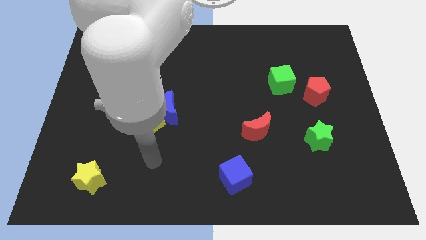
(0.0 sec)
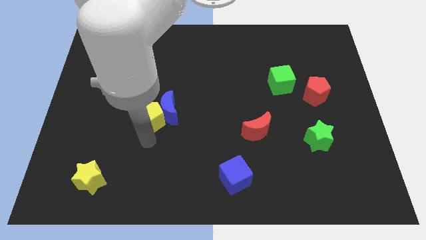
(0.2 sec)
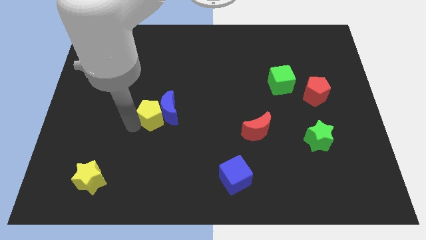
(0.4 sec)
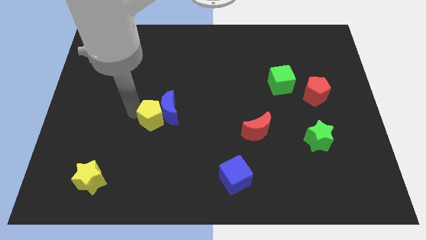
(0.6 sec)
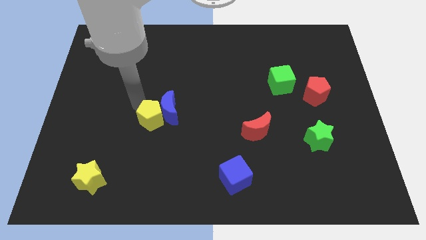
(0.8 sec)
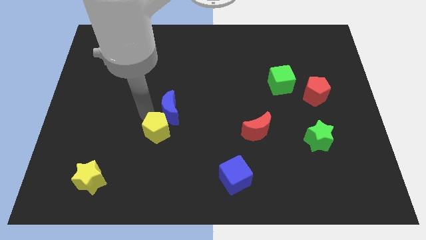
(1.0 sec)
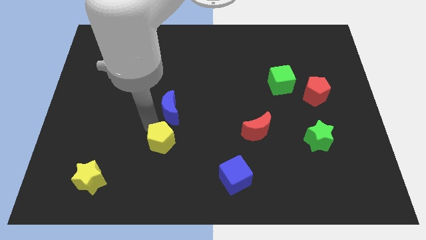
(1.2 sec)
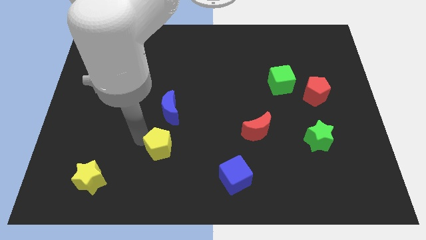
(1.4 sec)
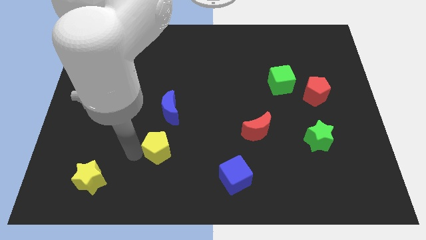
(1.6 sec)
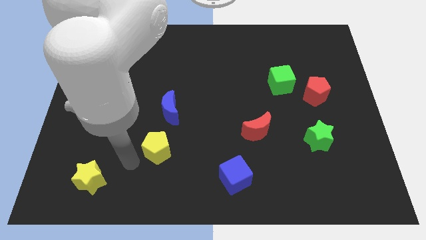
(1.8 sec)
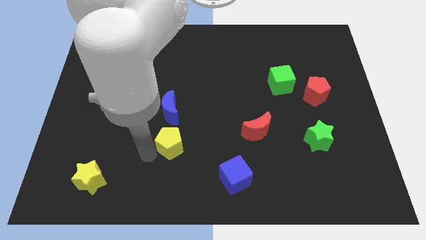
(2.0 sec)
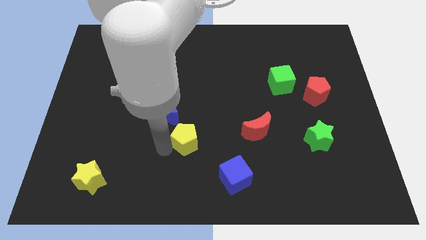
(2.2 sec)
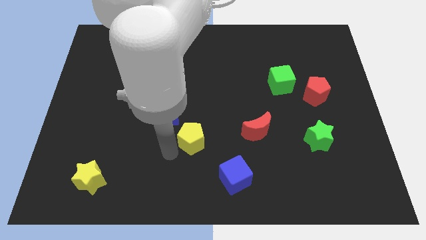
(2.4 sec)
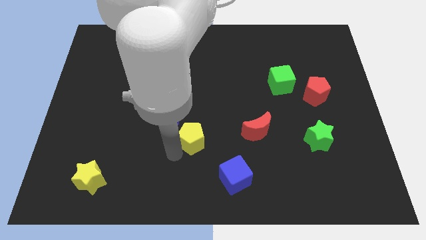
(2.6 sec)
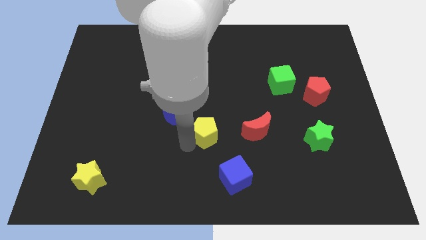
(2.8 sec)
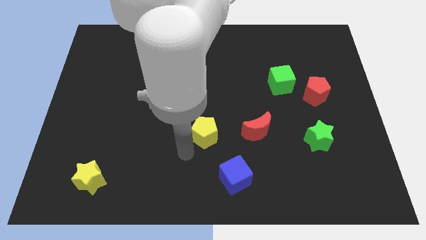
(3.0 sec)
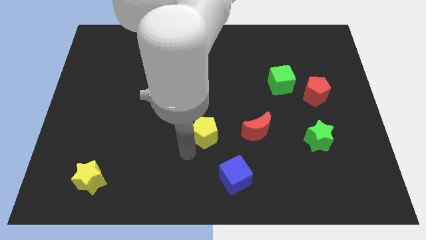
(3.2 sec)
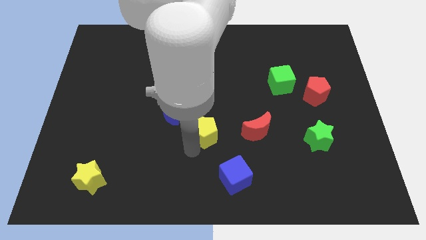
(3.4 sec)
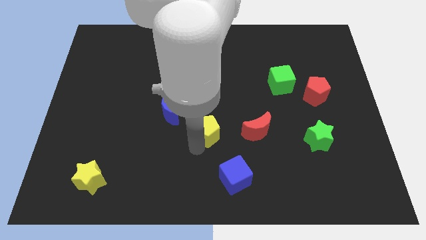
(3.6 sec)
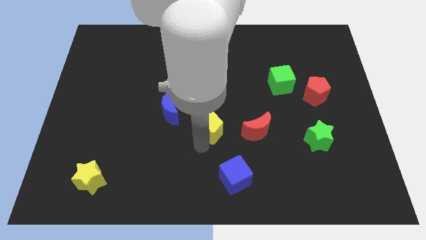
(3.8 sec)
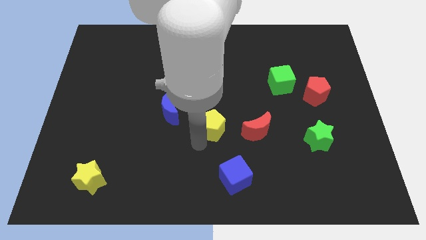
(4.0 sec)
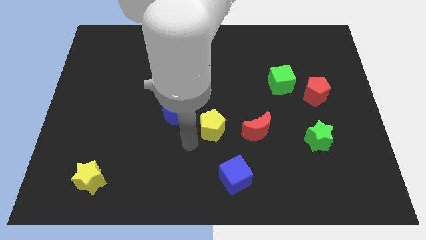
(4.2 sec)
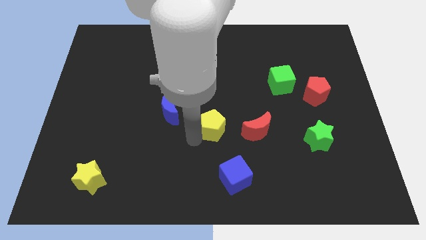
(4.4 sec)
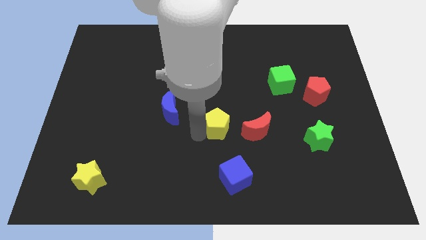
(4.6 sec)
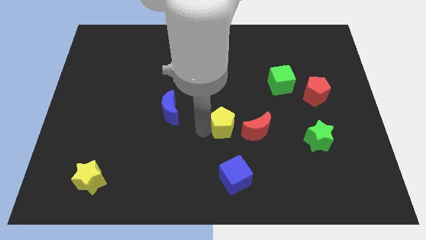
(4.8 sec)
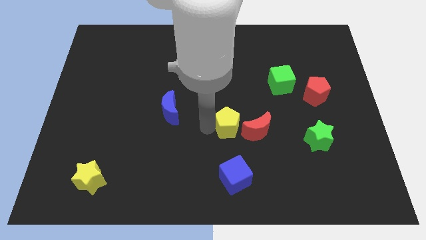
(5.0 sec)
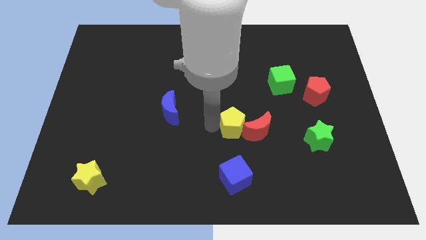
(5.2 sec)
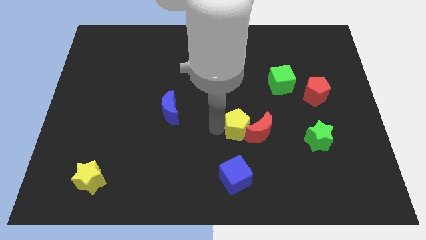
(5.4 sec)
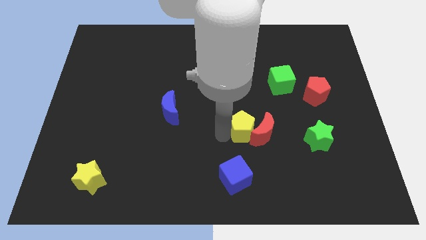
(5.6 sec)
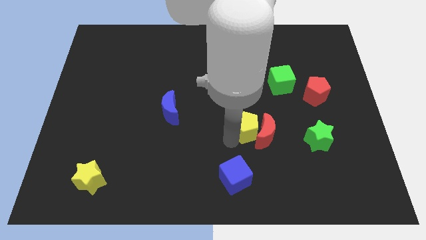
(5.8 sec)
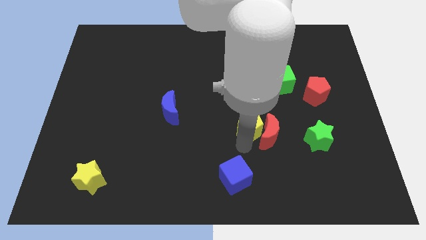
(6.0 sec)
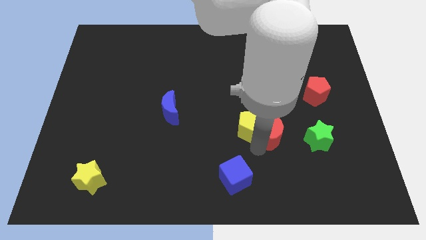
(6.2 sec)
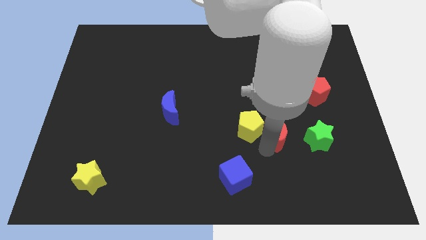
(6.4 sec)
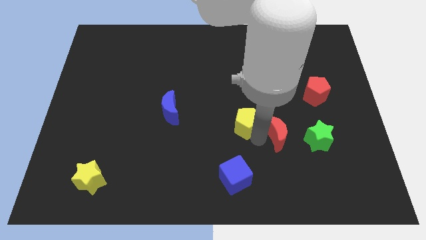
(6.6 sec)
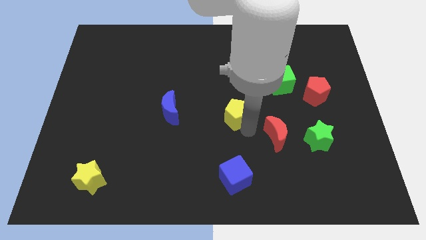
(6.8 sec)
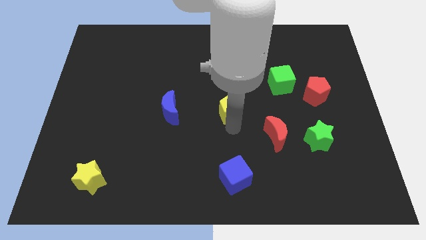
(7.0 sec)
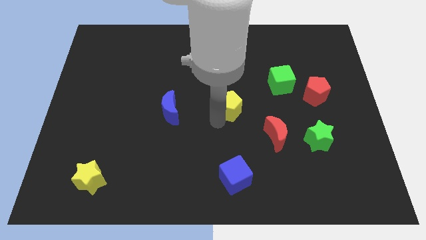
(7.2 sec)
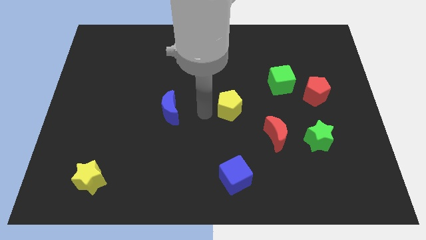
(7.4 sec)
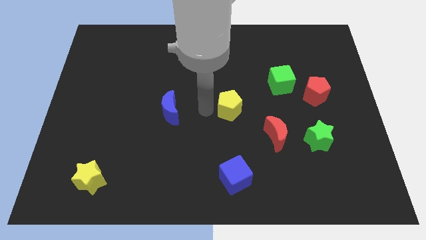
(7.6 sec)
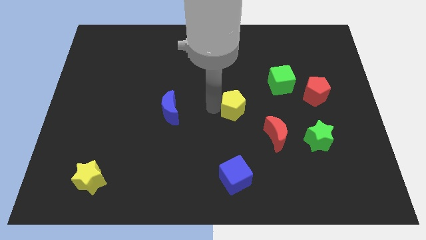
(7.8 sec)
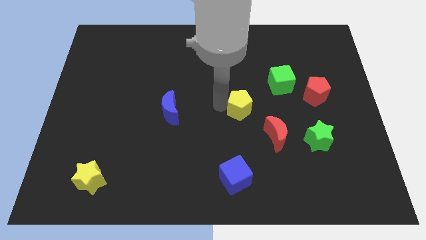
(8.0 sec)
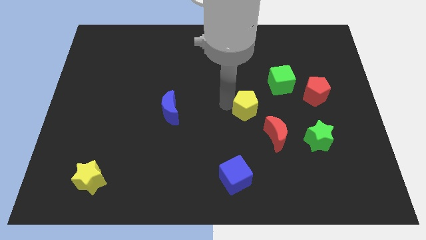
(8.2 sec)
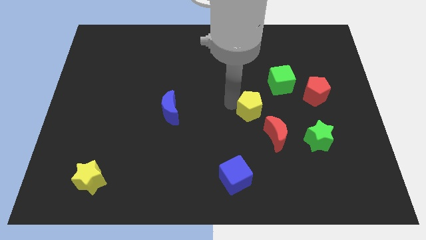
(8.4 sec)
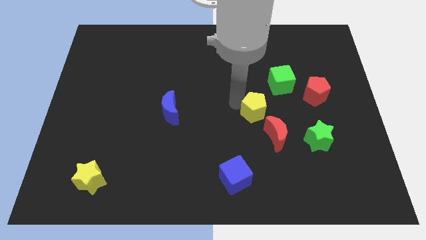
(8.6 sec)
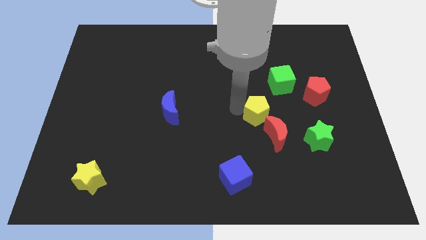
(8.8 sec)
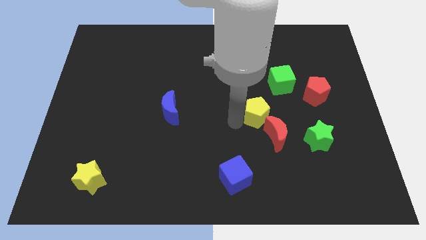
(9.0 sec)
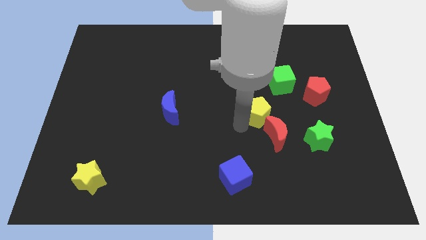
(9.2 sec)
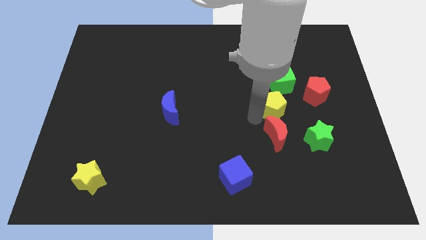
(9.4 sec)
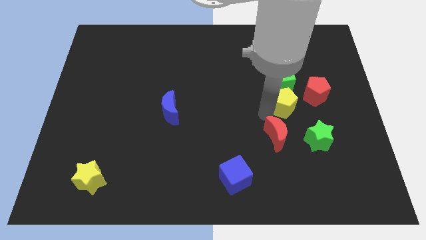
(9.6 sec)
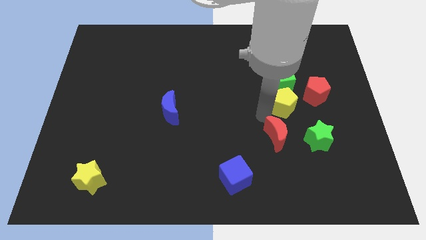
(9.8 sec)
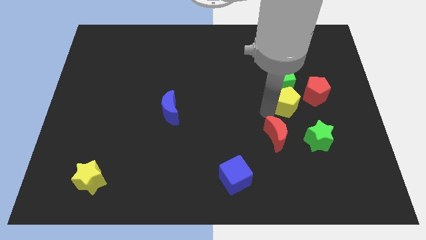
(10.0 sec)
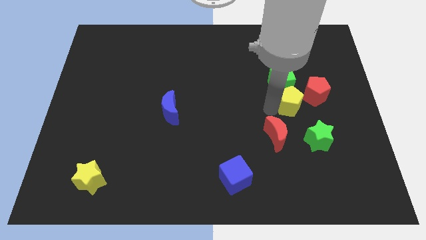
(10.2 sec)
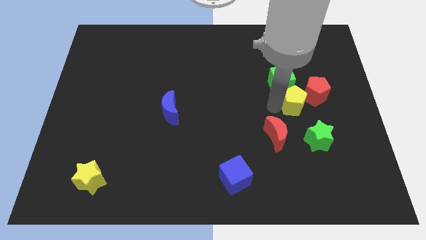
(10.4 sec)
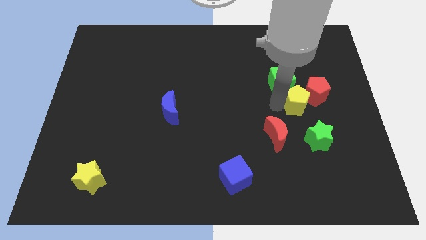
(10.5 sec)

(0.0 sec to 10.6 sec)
put the yellow pentagon towards the red pentagon

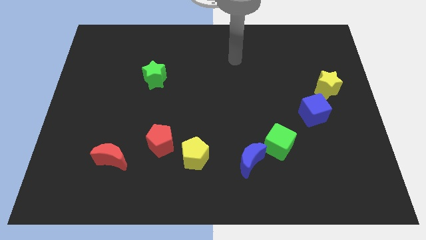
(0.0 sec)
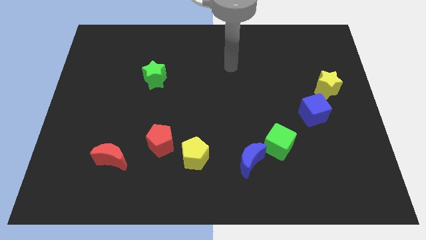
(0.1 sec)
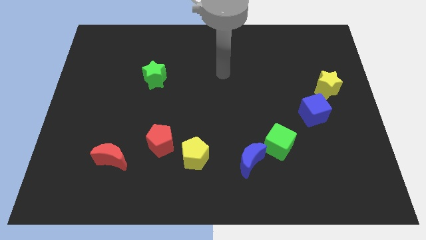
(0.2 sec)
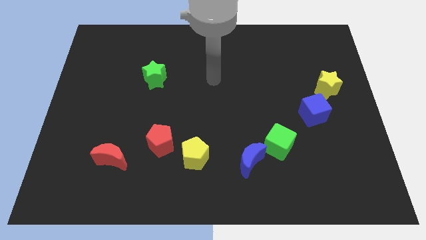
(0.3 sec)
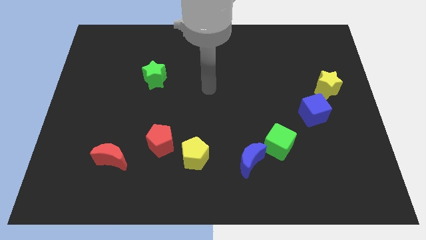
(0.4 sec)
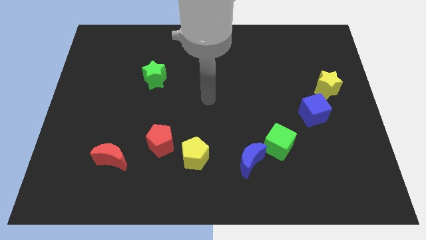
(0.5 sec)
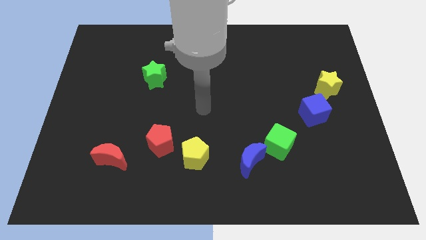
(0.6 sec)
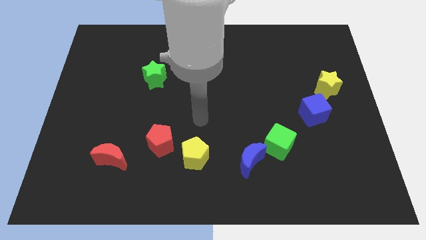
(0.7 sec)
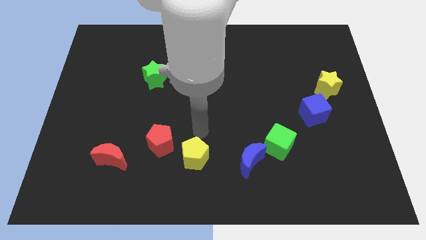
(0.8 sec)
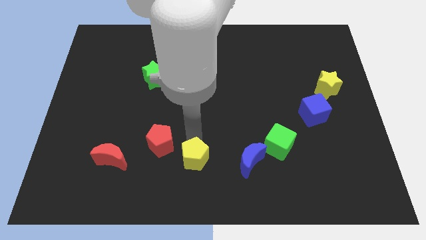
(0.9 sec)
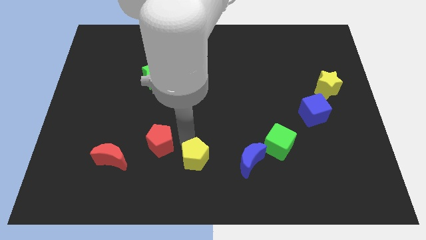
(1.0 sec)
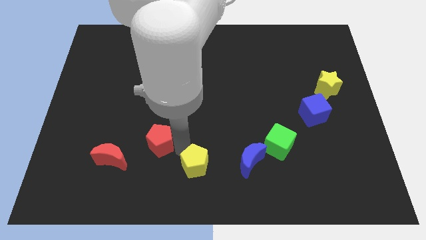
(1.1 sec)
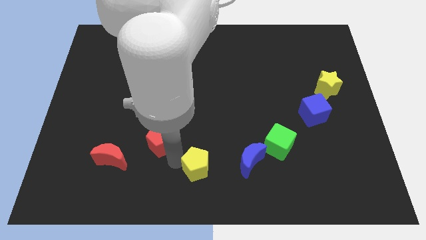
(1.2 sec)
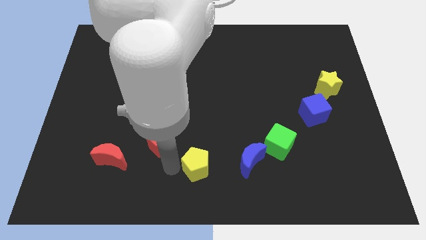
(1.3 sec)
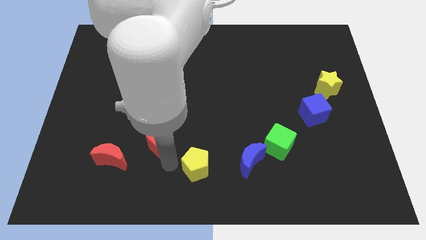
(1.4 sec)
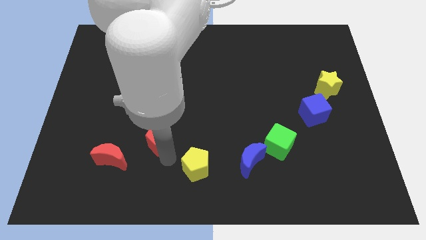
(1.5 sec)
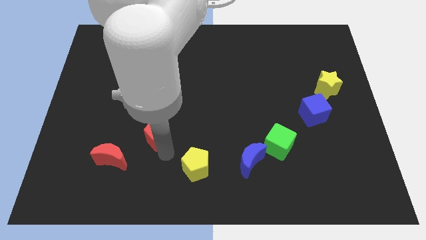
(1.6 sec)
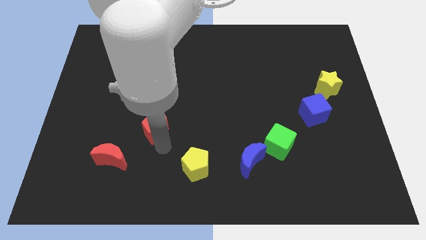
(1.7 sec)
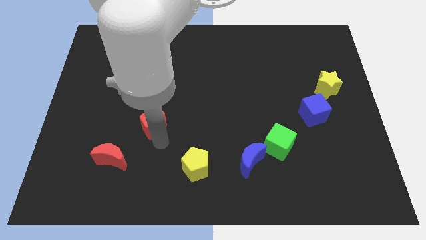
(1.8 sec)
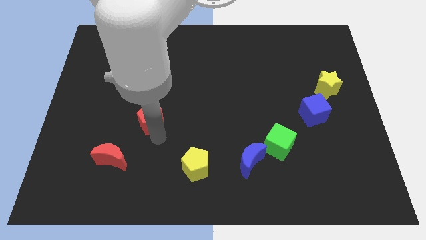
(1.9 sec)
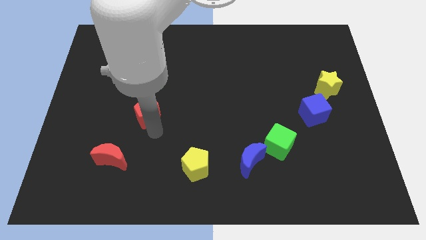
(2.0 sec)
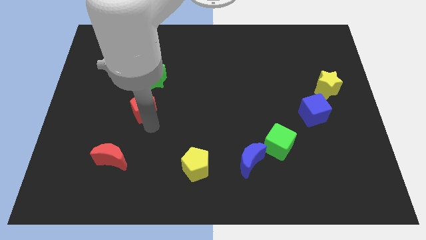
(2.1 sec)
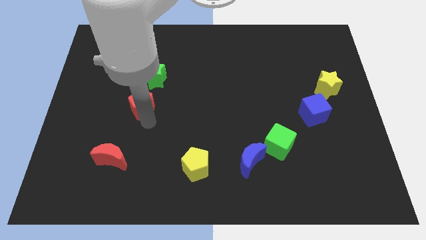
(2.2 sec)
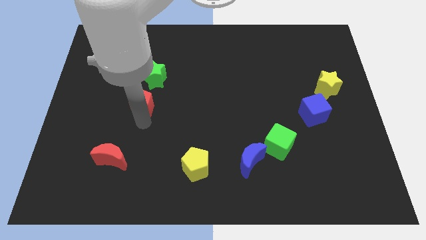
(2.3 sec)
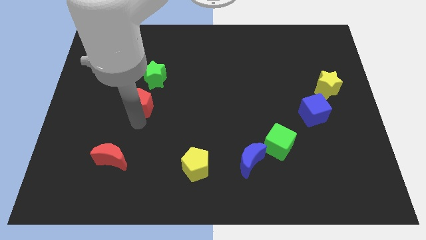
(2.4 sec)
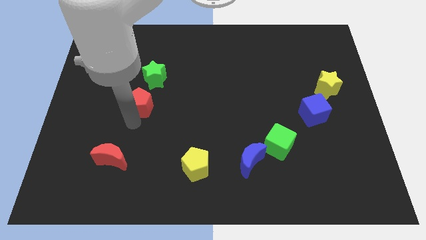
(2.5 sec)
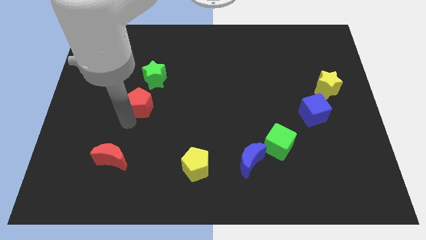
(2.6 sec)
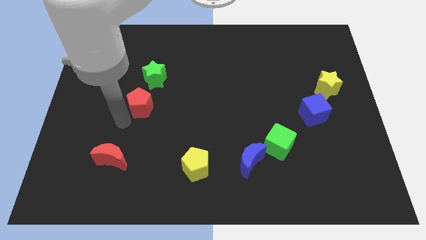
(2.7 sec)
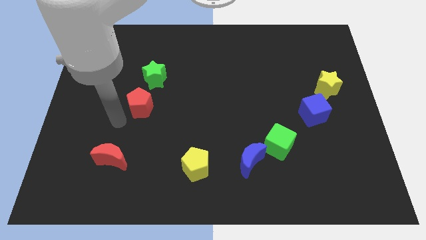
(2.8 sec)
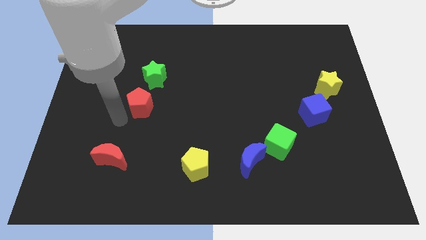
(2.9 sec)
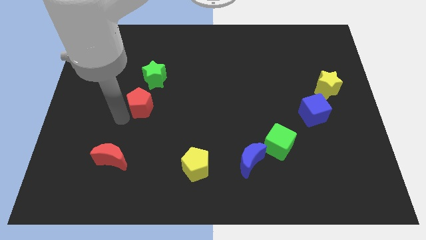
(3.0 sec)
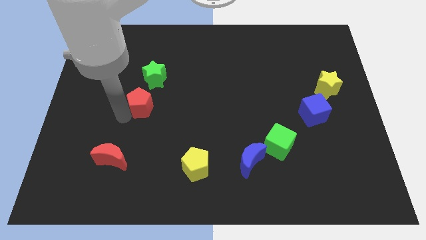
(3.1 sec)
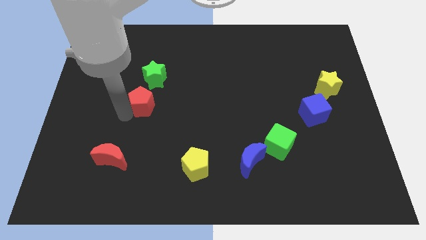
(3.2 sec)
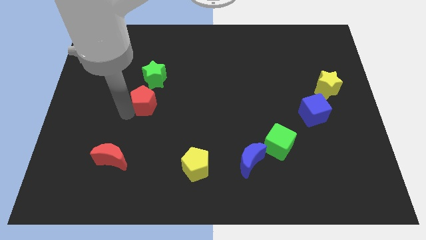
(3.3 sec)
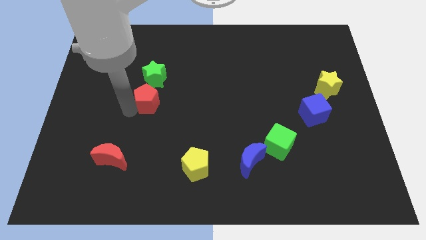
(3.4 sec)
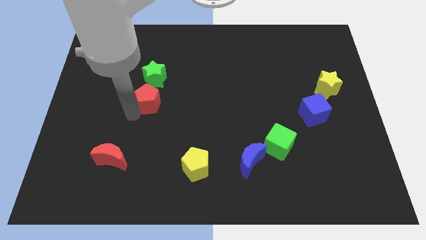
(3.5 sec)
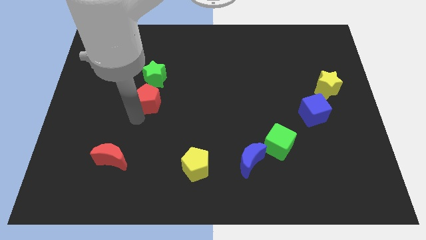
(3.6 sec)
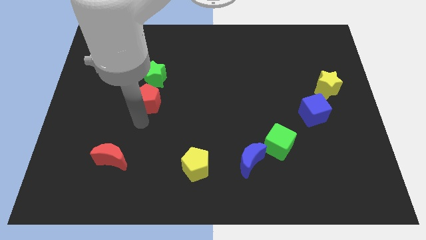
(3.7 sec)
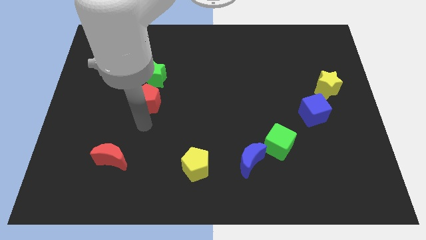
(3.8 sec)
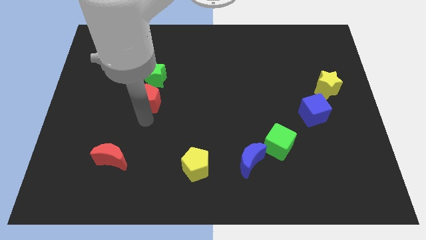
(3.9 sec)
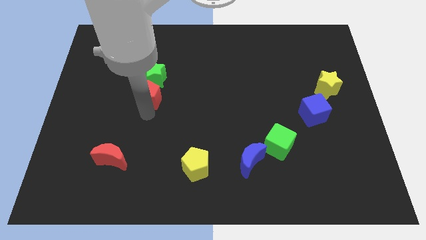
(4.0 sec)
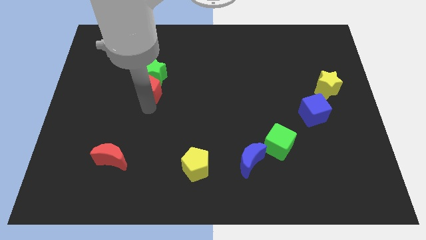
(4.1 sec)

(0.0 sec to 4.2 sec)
put the red pentagon to the green star
